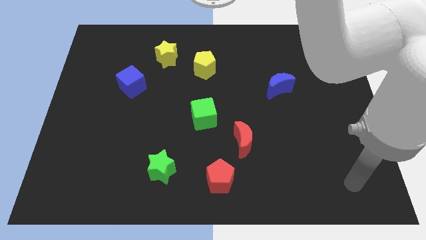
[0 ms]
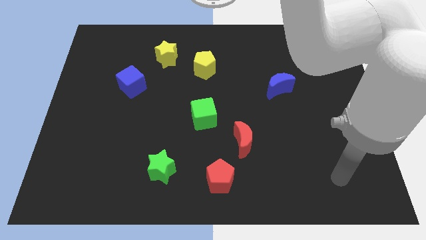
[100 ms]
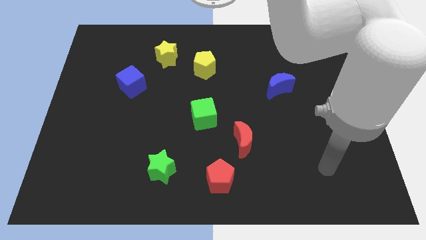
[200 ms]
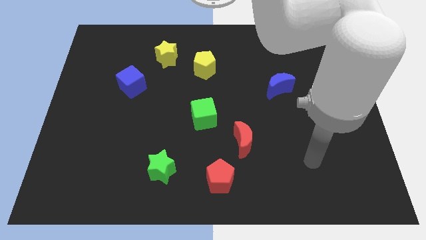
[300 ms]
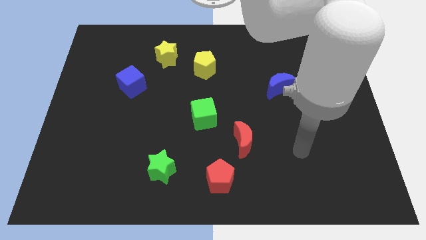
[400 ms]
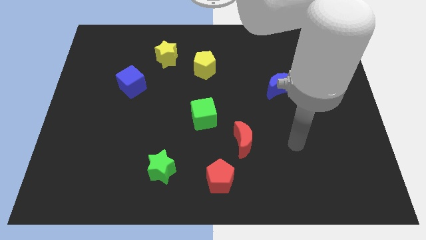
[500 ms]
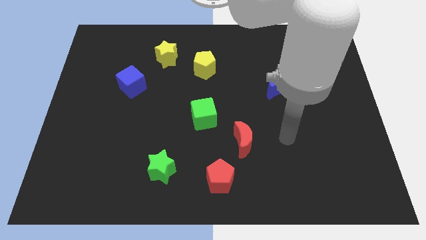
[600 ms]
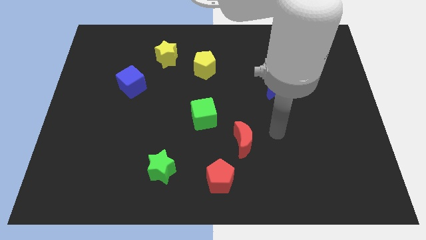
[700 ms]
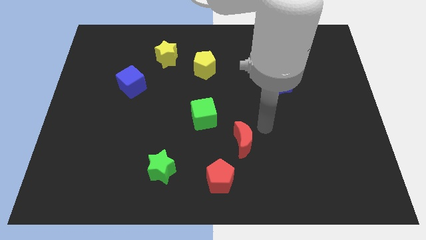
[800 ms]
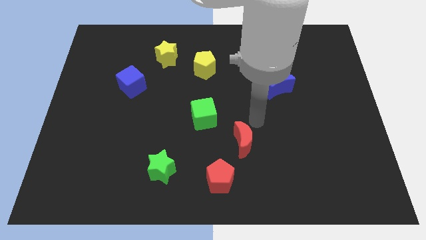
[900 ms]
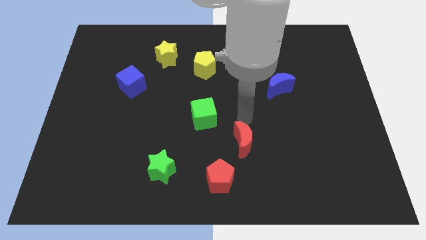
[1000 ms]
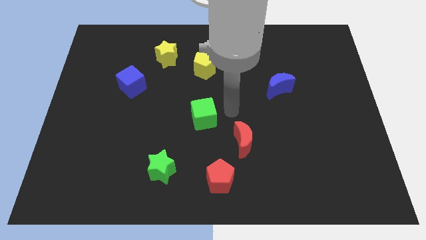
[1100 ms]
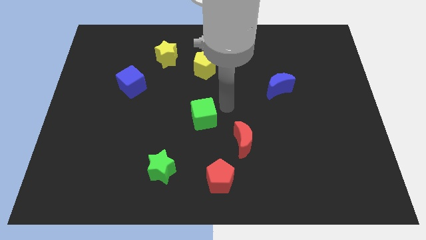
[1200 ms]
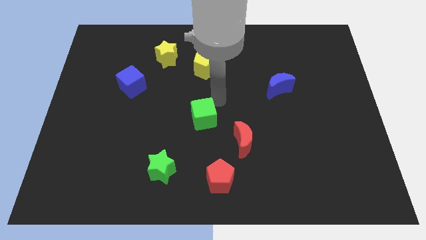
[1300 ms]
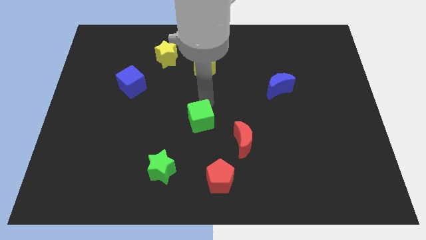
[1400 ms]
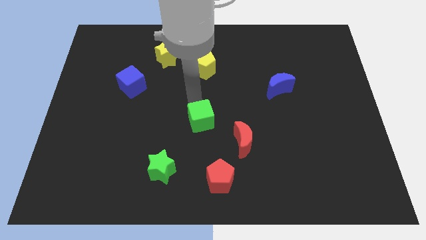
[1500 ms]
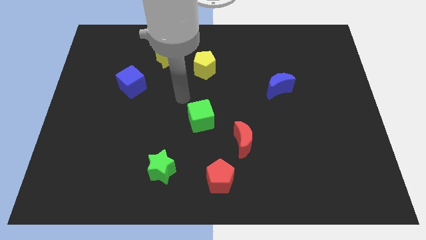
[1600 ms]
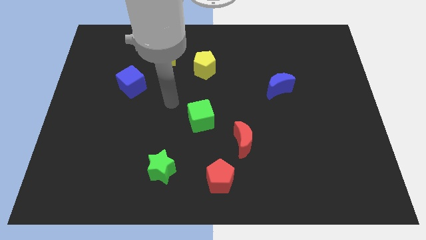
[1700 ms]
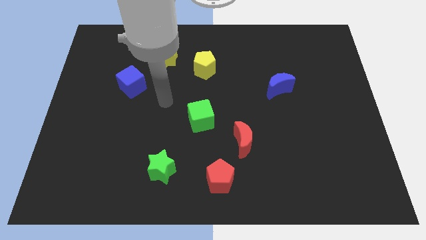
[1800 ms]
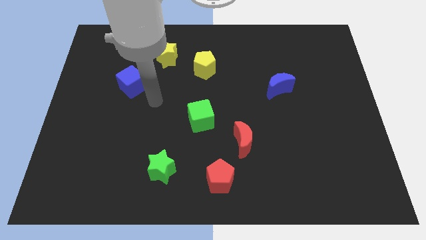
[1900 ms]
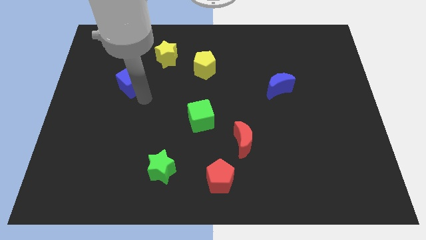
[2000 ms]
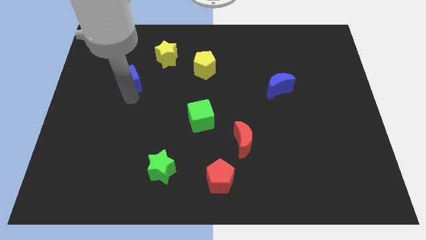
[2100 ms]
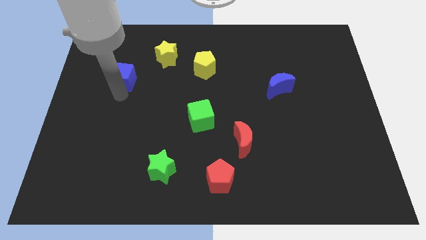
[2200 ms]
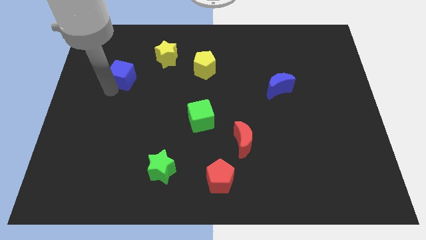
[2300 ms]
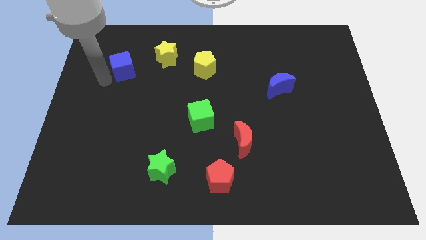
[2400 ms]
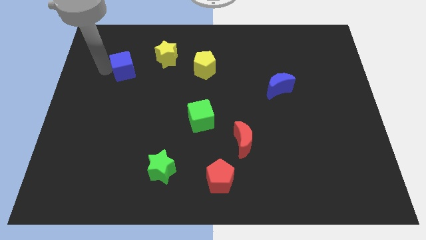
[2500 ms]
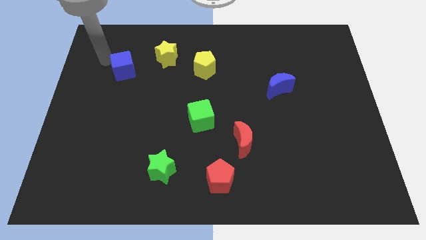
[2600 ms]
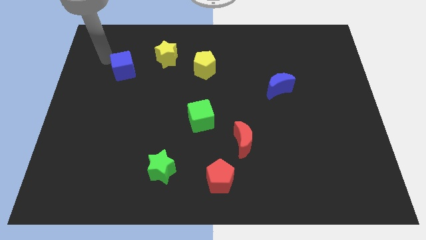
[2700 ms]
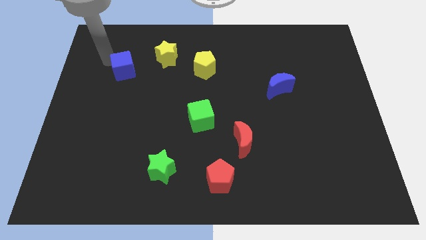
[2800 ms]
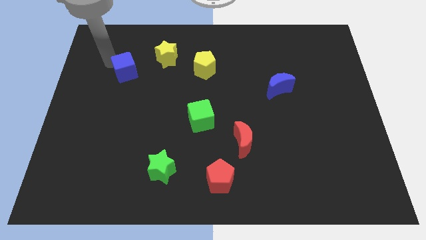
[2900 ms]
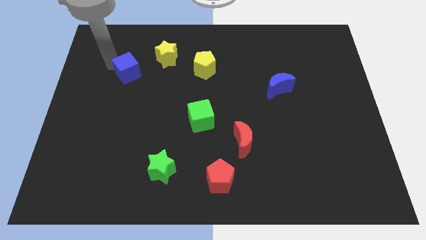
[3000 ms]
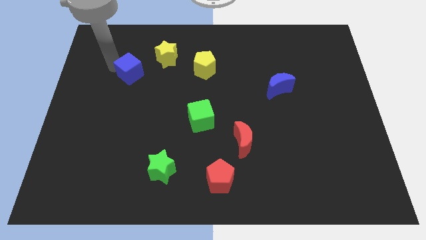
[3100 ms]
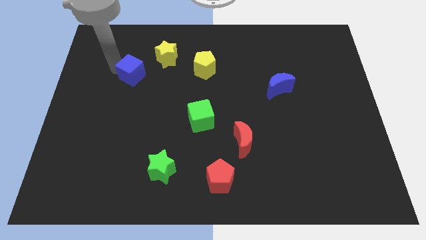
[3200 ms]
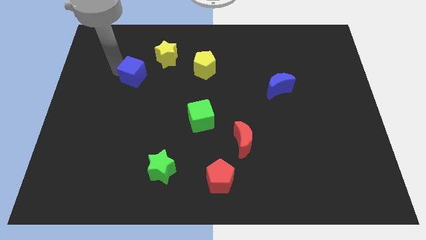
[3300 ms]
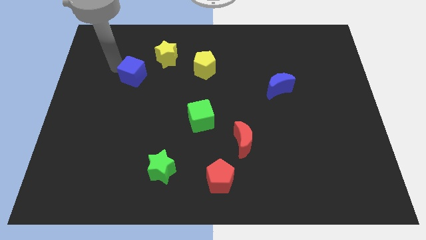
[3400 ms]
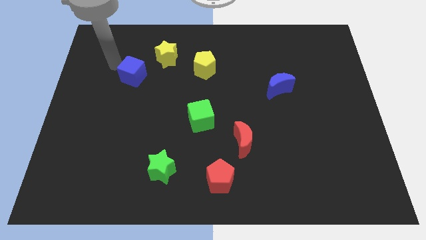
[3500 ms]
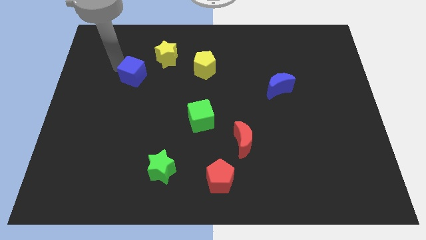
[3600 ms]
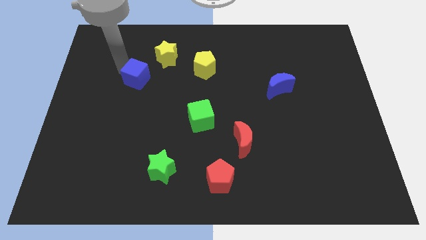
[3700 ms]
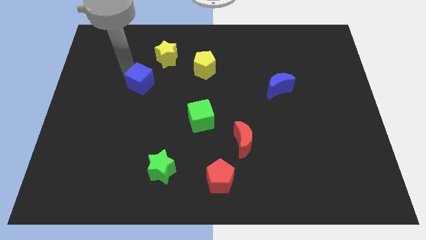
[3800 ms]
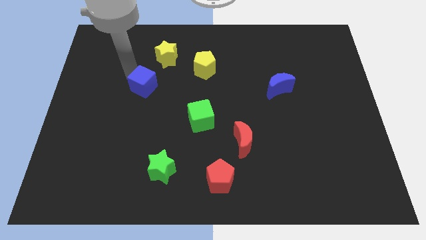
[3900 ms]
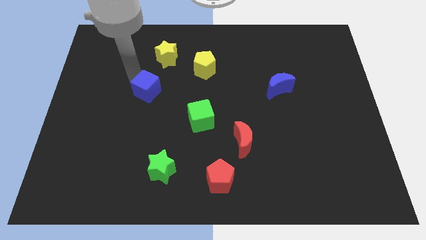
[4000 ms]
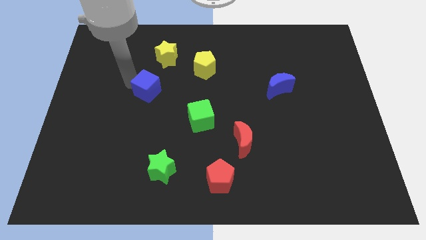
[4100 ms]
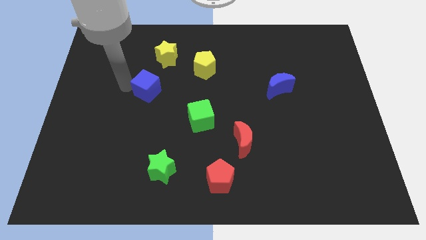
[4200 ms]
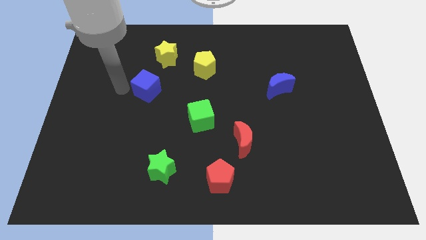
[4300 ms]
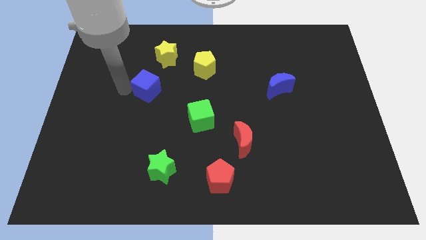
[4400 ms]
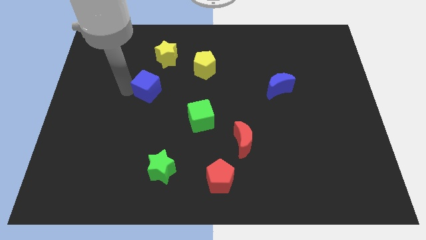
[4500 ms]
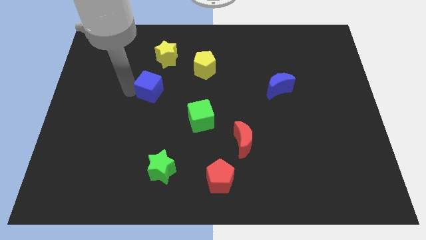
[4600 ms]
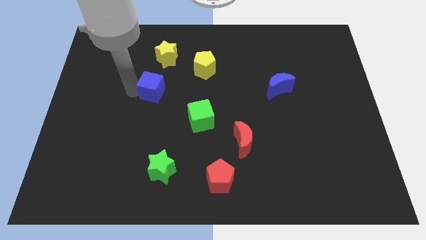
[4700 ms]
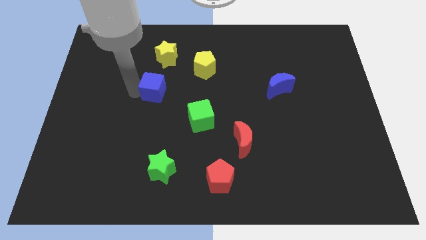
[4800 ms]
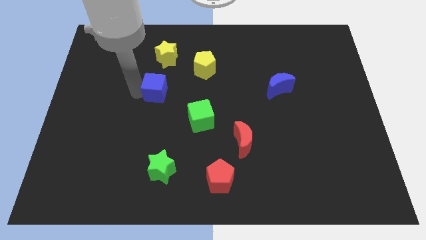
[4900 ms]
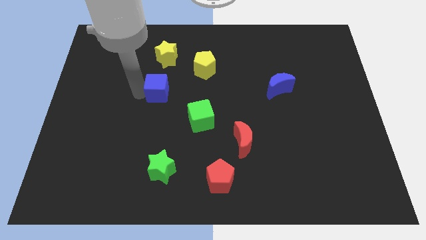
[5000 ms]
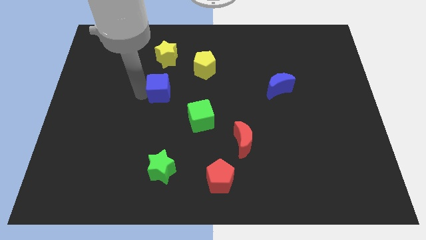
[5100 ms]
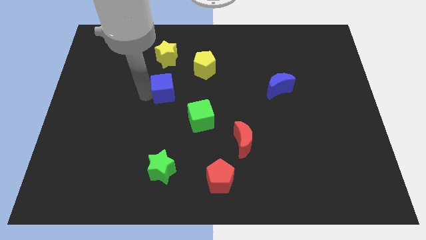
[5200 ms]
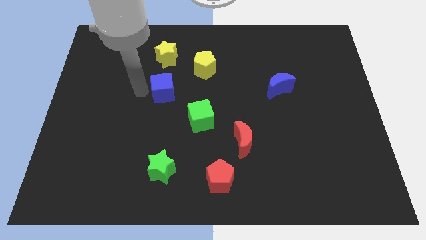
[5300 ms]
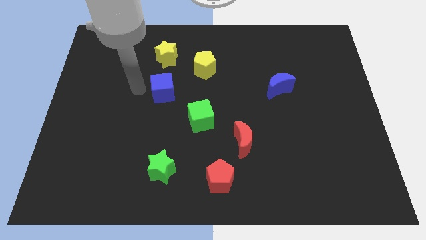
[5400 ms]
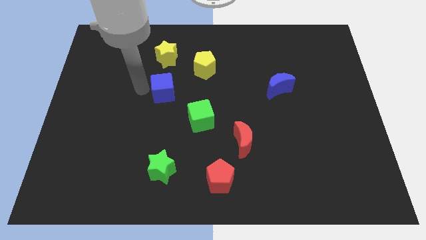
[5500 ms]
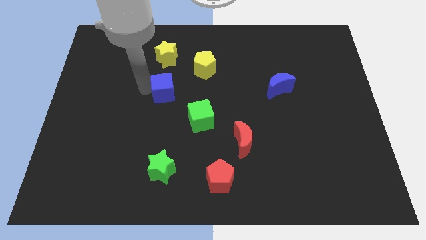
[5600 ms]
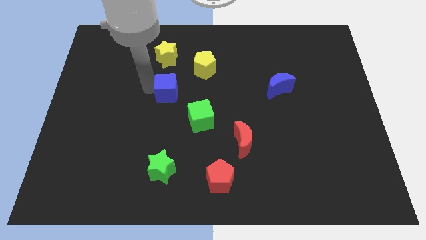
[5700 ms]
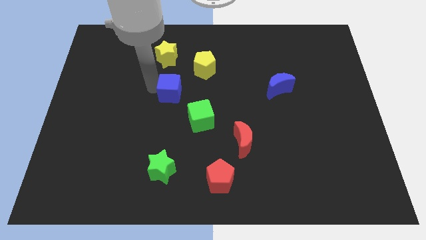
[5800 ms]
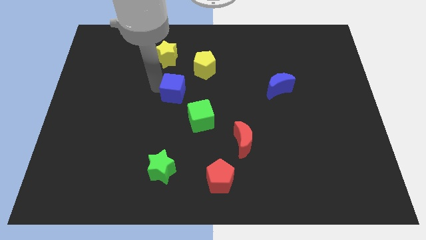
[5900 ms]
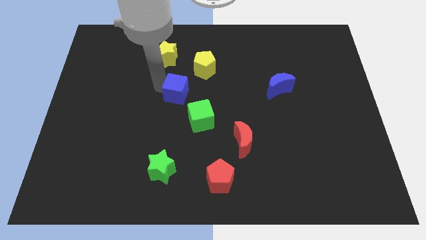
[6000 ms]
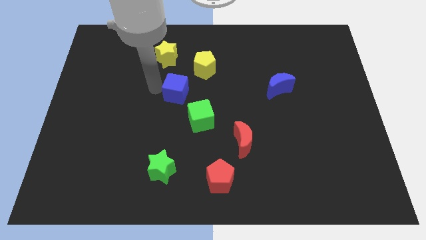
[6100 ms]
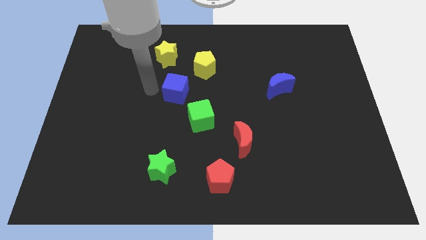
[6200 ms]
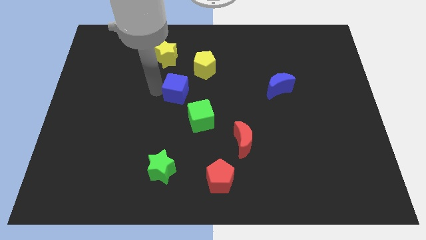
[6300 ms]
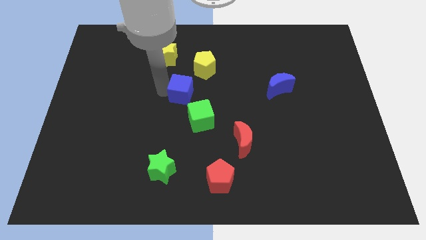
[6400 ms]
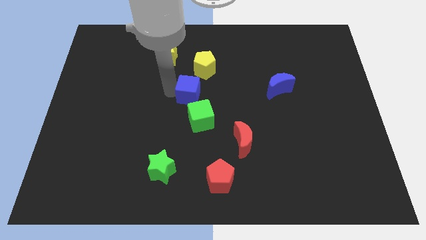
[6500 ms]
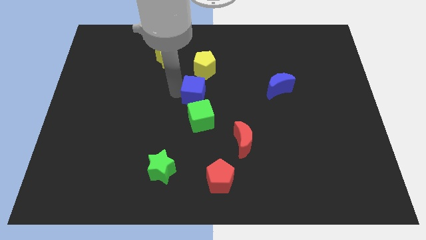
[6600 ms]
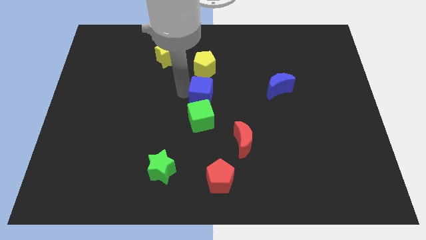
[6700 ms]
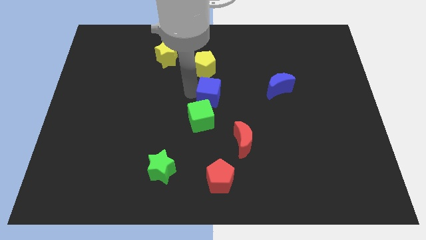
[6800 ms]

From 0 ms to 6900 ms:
push the blue cube diagonally up and to the right of the green cube
